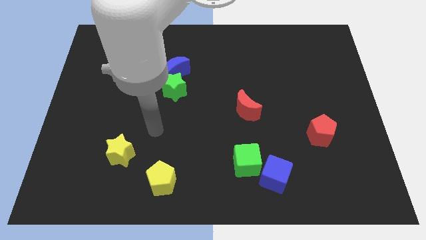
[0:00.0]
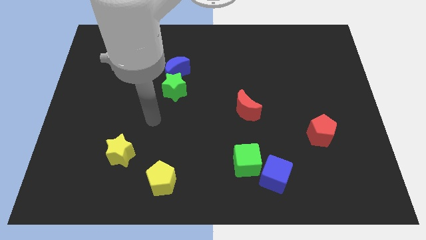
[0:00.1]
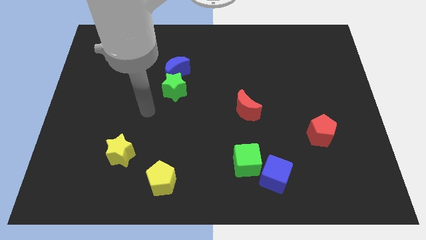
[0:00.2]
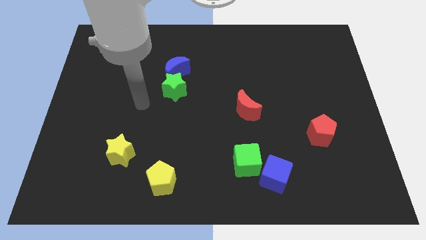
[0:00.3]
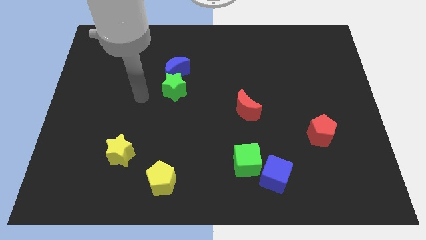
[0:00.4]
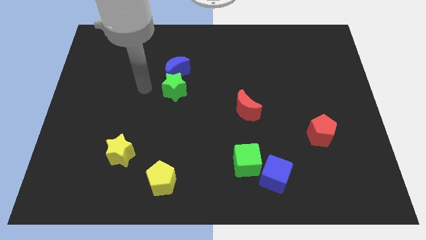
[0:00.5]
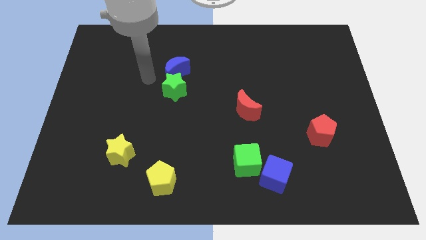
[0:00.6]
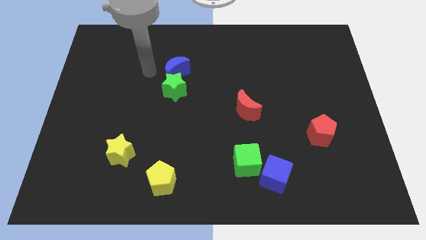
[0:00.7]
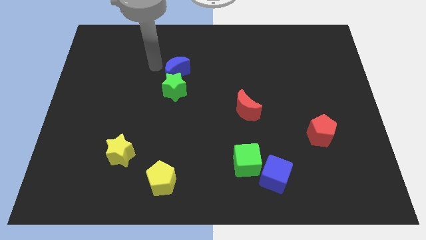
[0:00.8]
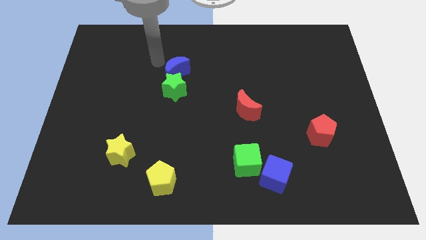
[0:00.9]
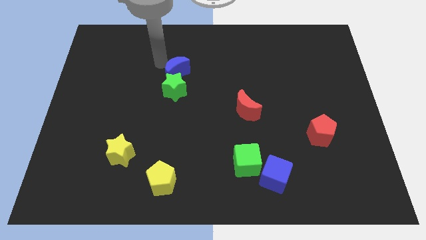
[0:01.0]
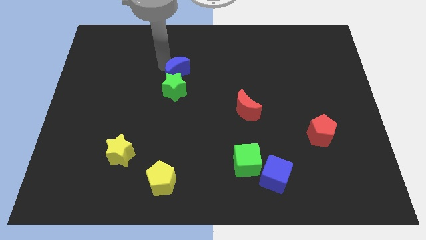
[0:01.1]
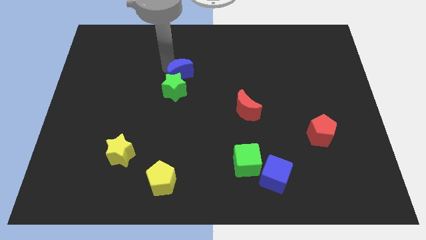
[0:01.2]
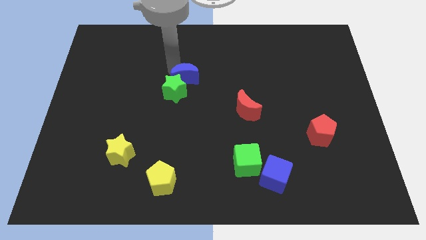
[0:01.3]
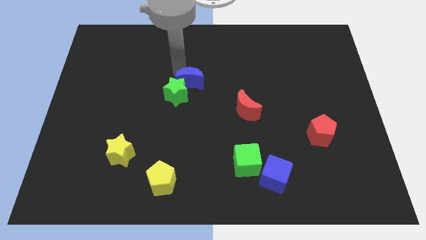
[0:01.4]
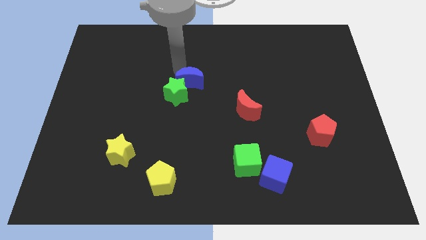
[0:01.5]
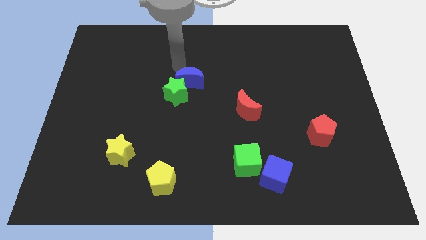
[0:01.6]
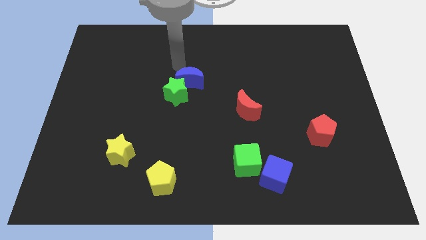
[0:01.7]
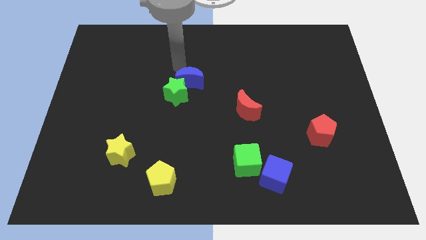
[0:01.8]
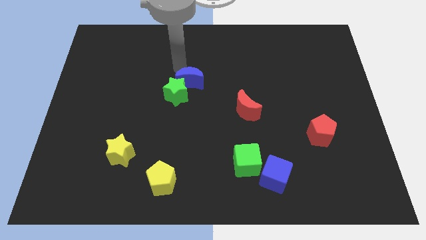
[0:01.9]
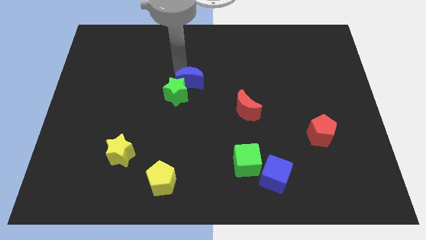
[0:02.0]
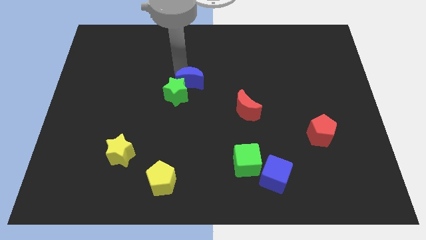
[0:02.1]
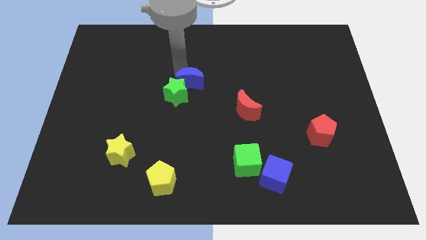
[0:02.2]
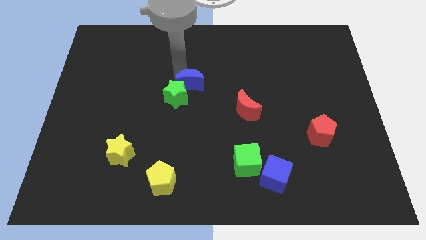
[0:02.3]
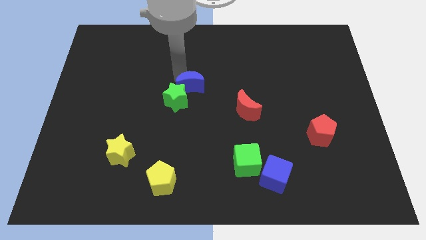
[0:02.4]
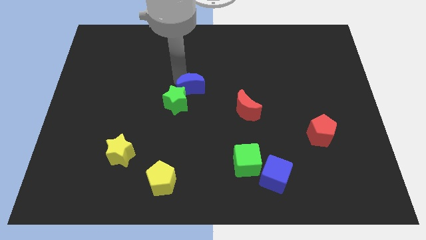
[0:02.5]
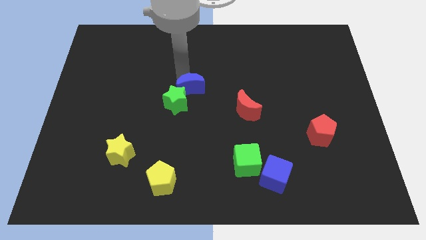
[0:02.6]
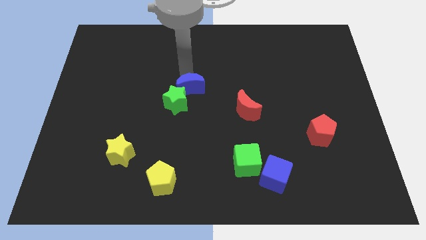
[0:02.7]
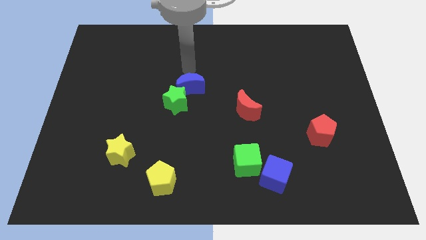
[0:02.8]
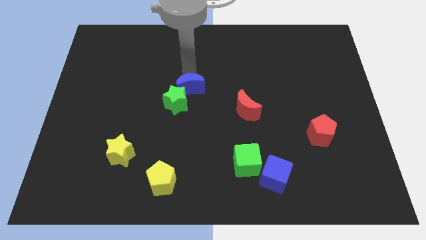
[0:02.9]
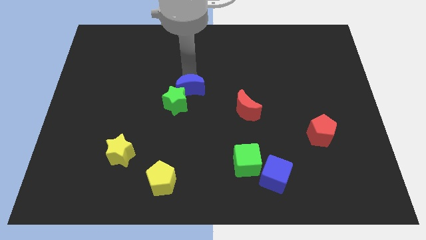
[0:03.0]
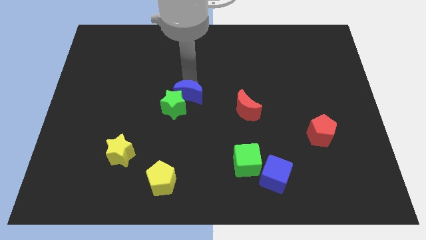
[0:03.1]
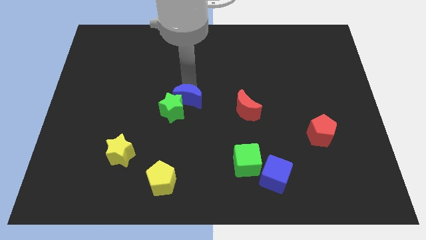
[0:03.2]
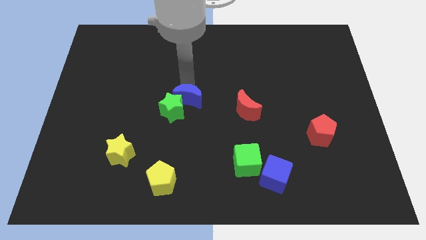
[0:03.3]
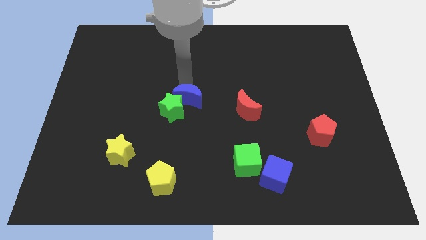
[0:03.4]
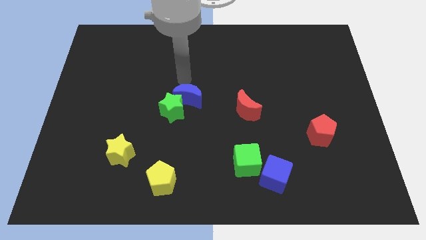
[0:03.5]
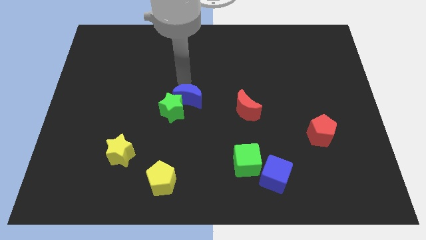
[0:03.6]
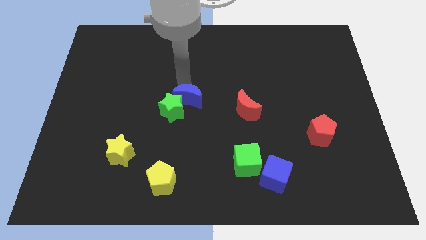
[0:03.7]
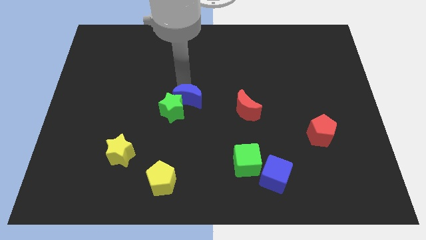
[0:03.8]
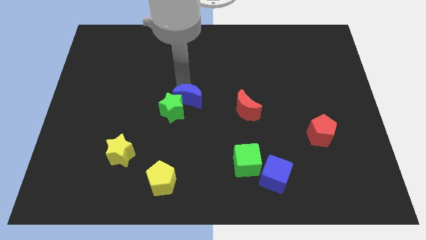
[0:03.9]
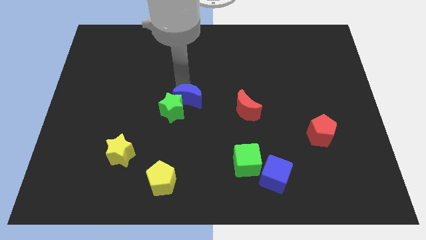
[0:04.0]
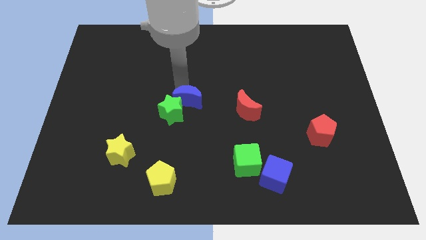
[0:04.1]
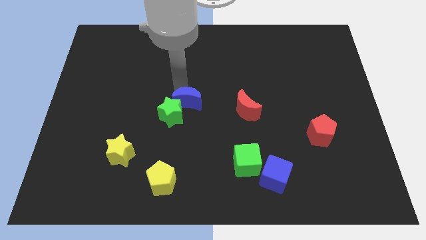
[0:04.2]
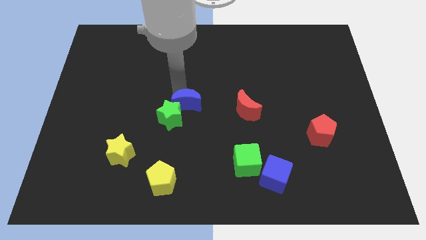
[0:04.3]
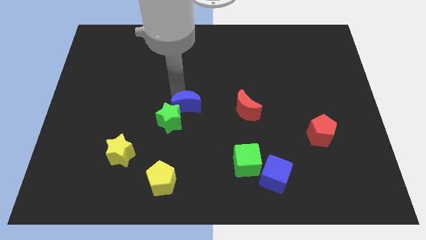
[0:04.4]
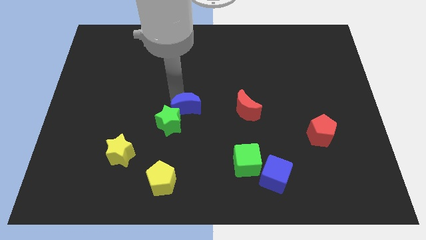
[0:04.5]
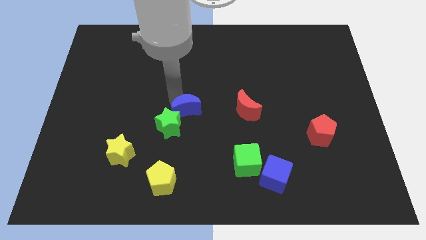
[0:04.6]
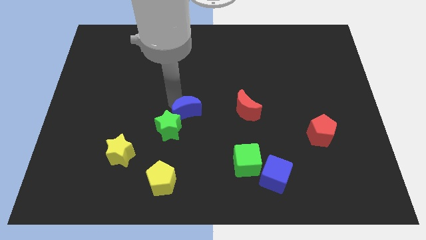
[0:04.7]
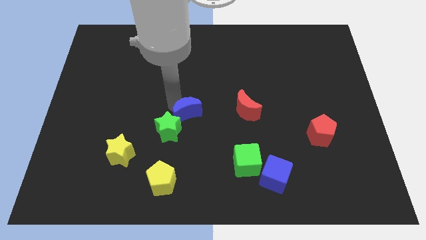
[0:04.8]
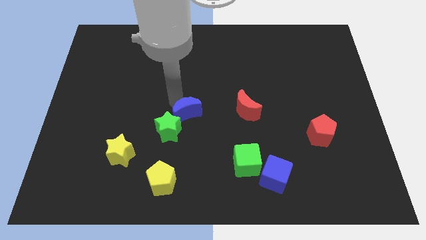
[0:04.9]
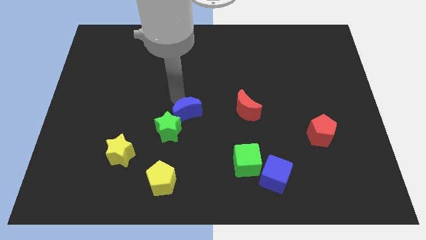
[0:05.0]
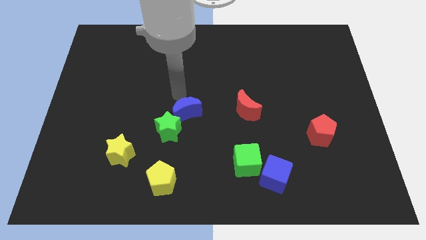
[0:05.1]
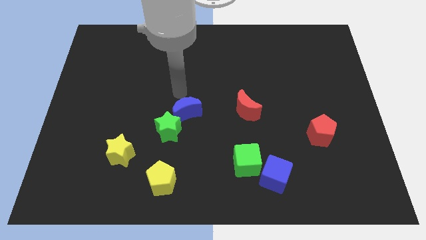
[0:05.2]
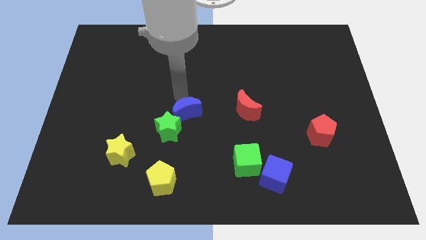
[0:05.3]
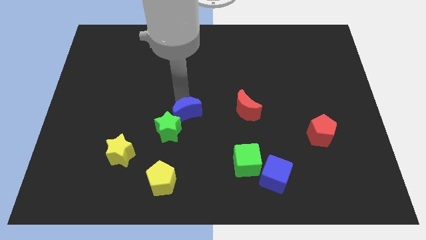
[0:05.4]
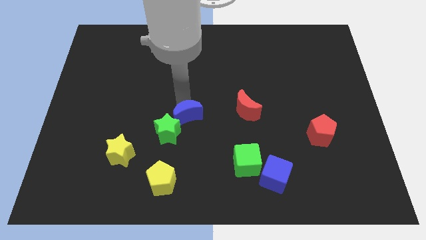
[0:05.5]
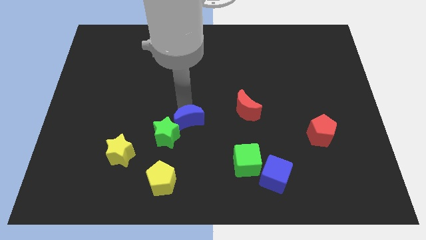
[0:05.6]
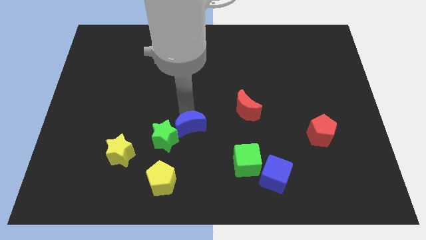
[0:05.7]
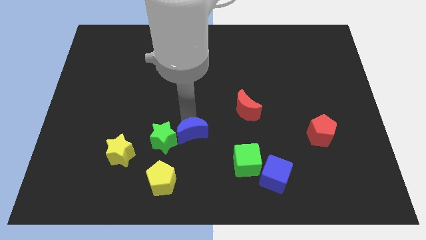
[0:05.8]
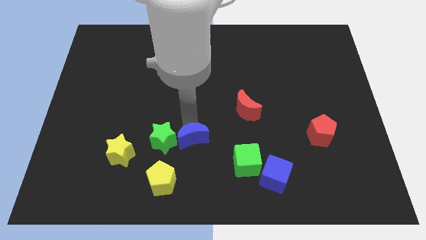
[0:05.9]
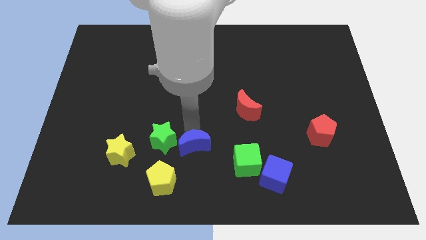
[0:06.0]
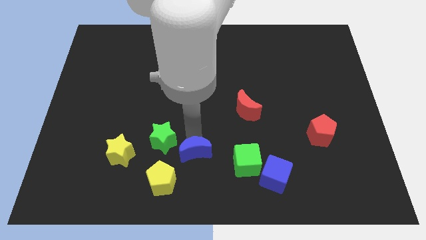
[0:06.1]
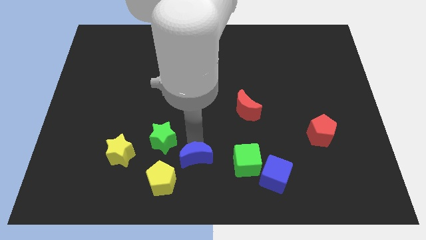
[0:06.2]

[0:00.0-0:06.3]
slide the blue moon to the bottom

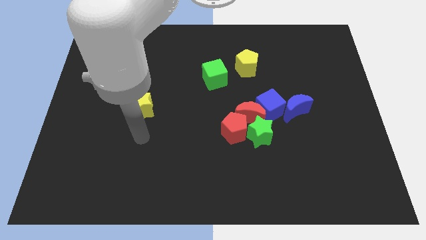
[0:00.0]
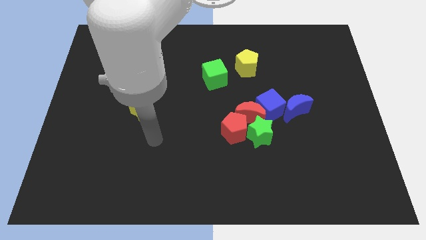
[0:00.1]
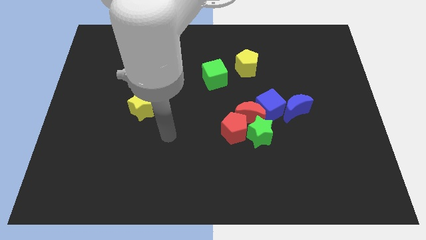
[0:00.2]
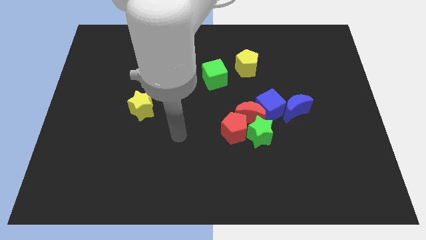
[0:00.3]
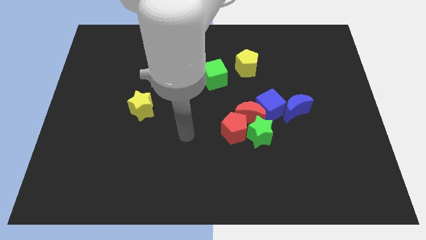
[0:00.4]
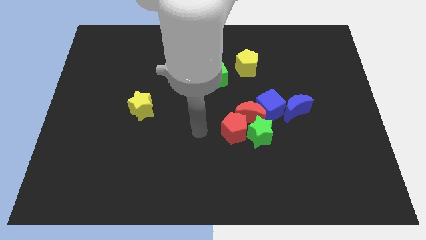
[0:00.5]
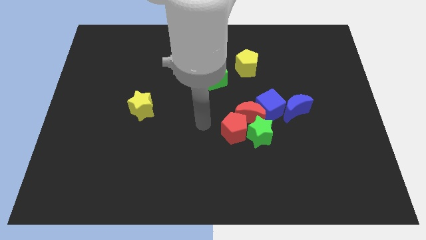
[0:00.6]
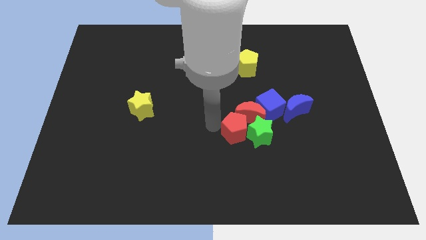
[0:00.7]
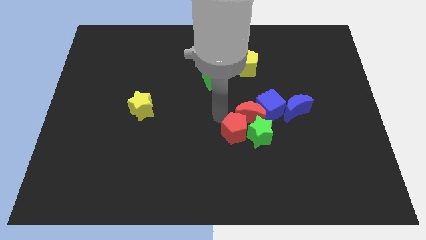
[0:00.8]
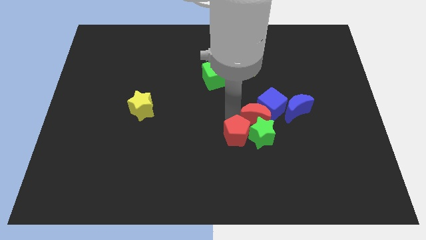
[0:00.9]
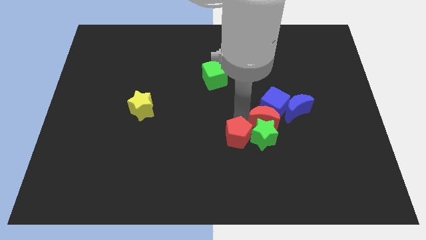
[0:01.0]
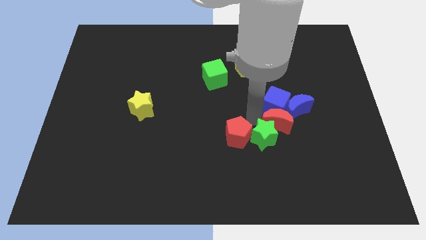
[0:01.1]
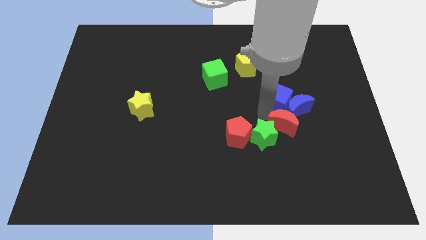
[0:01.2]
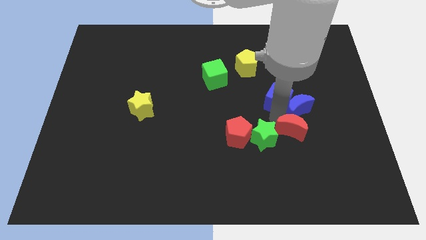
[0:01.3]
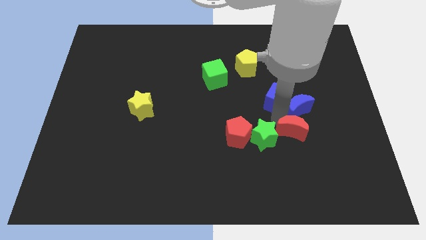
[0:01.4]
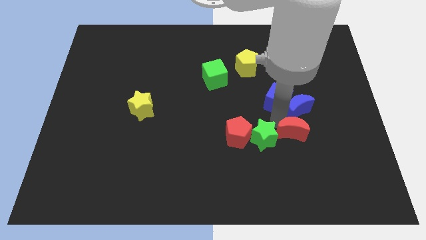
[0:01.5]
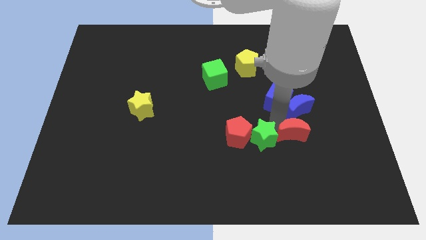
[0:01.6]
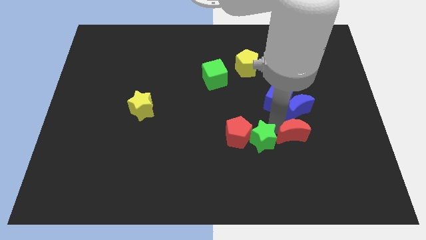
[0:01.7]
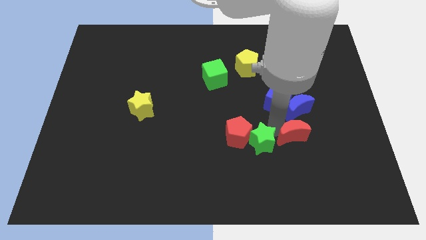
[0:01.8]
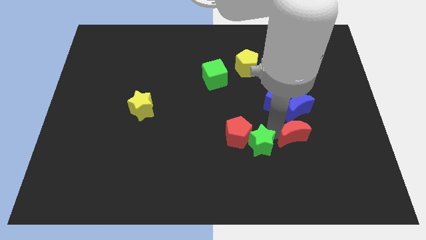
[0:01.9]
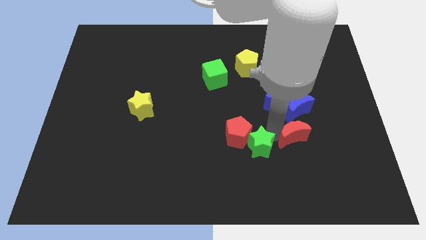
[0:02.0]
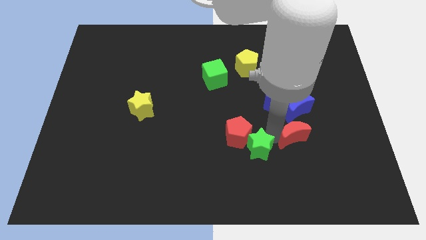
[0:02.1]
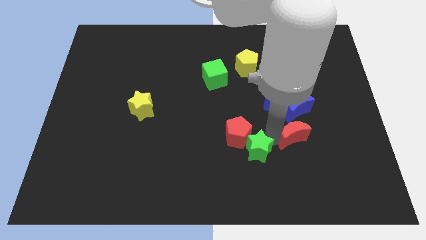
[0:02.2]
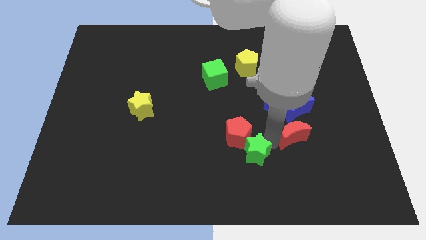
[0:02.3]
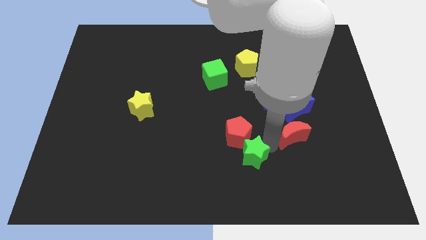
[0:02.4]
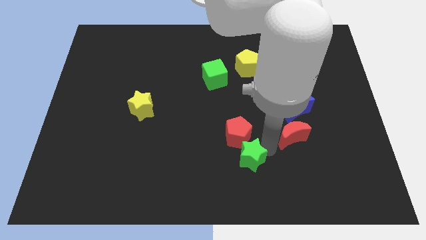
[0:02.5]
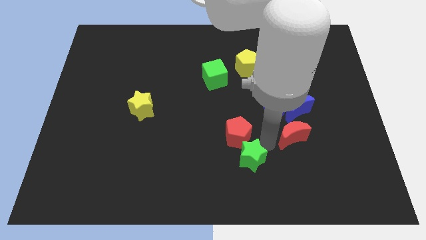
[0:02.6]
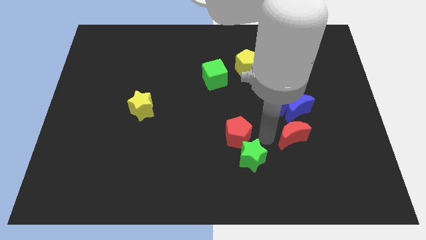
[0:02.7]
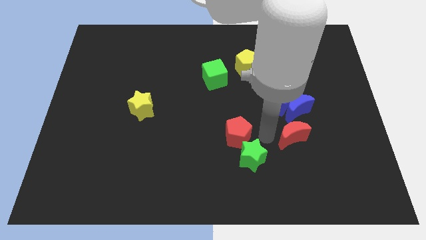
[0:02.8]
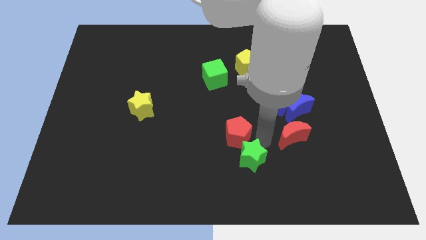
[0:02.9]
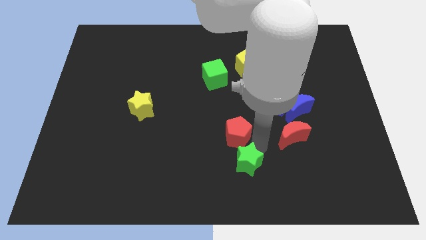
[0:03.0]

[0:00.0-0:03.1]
put the green star to the bottom
